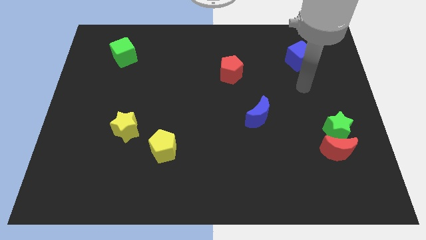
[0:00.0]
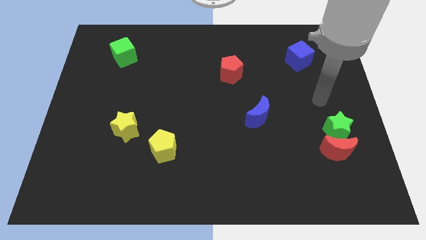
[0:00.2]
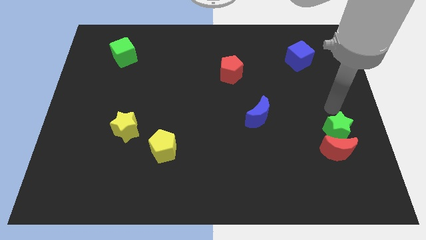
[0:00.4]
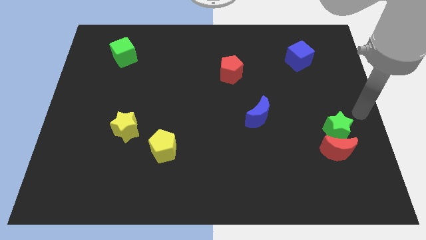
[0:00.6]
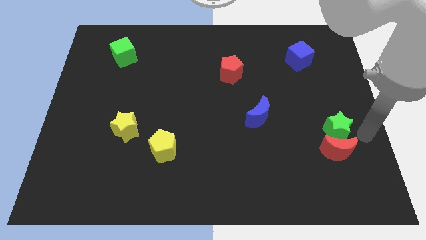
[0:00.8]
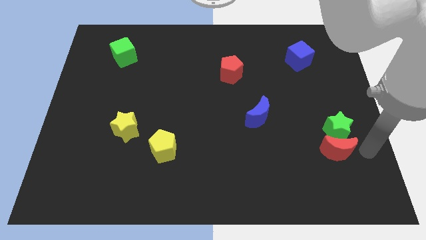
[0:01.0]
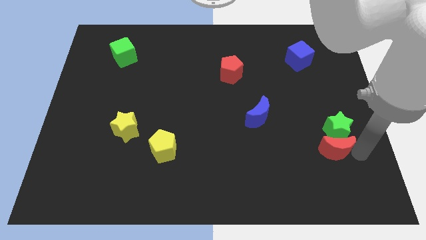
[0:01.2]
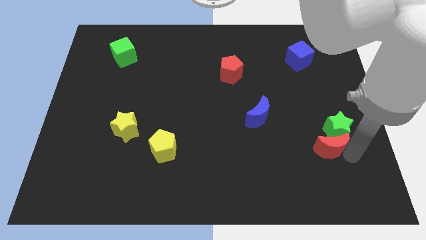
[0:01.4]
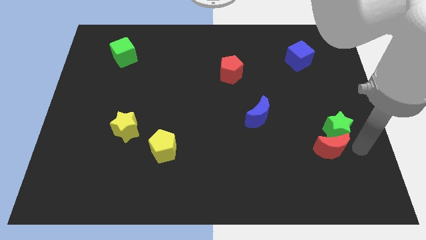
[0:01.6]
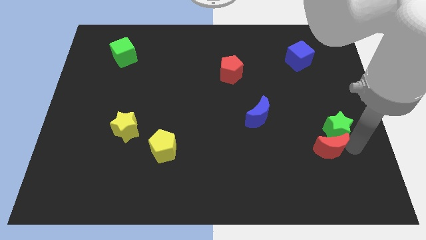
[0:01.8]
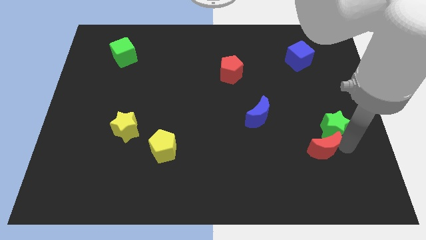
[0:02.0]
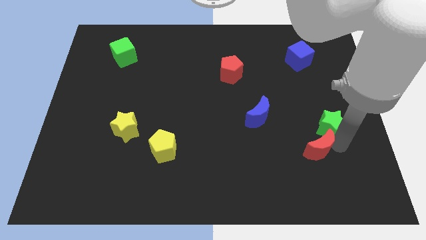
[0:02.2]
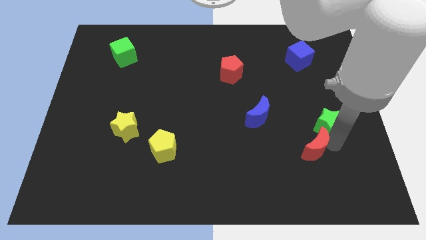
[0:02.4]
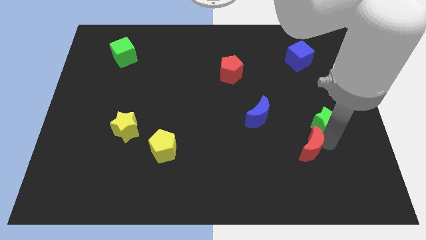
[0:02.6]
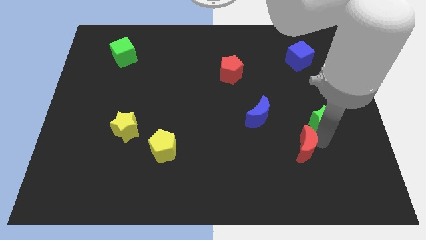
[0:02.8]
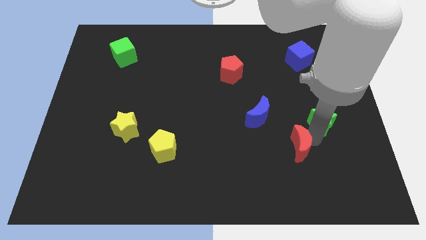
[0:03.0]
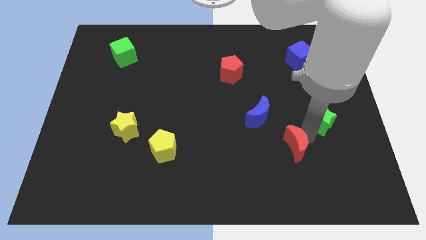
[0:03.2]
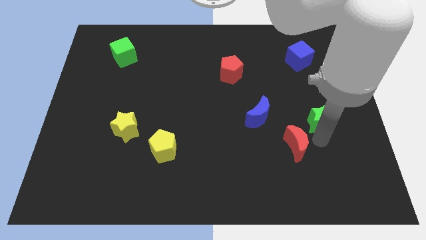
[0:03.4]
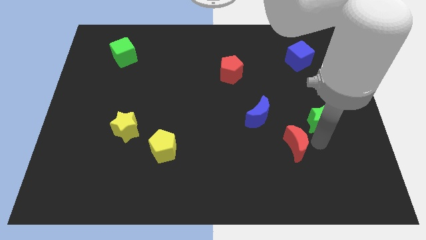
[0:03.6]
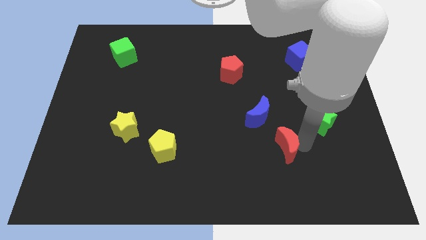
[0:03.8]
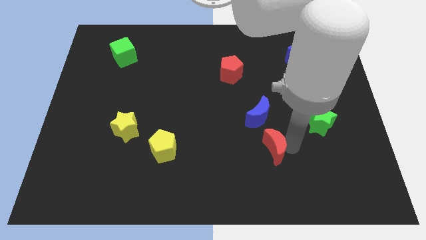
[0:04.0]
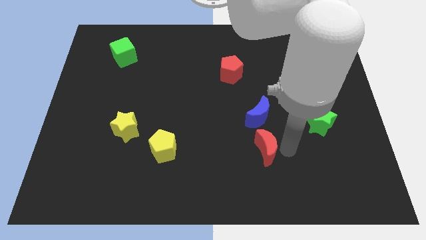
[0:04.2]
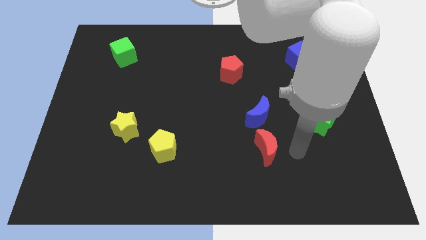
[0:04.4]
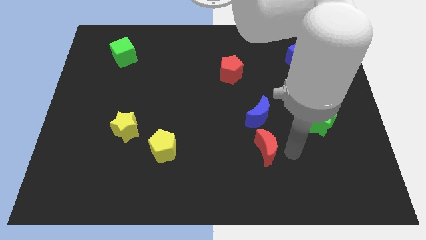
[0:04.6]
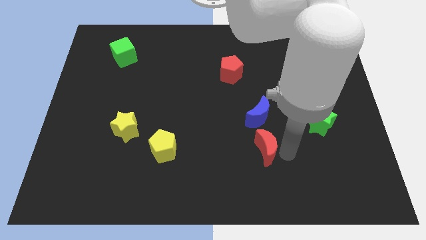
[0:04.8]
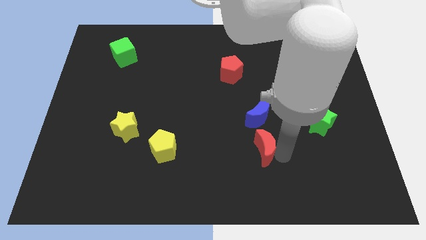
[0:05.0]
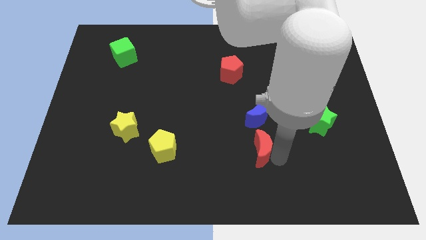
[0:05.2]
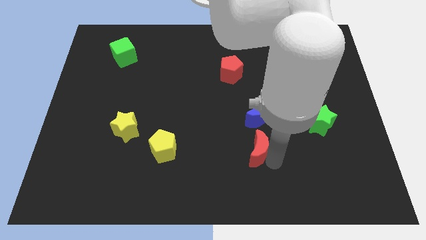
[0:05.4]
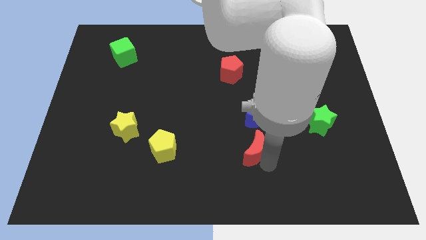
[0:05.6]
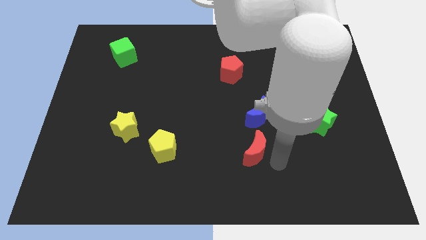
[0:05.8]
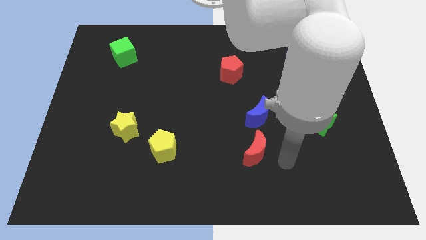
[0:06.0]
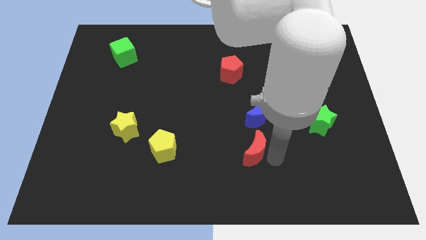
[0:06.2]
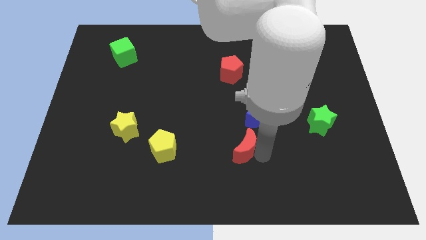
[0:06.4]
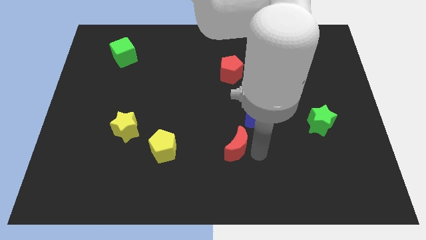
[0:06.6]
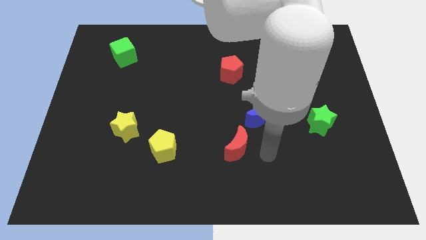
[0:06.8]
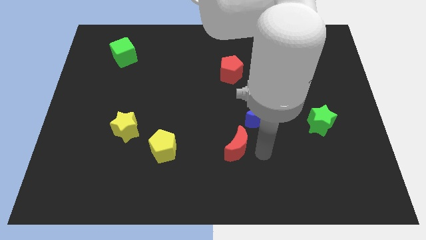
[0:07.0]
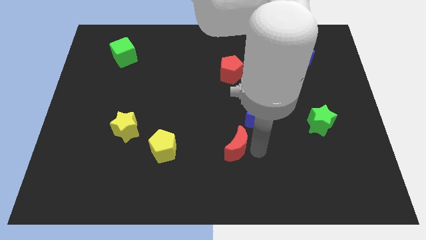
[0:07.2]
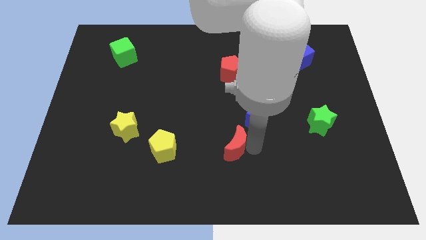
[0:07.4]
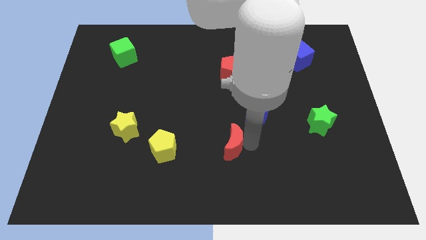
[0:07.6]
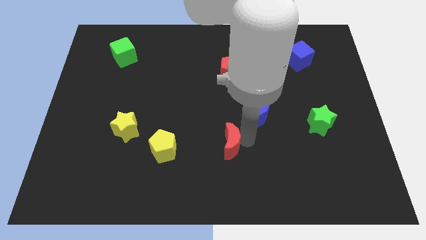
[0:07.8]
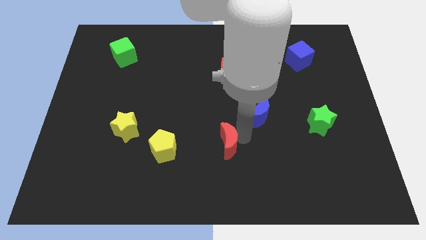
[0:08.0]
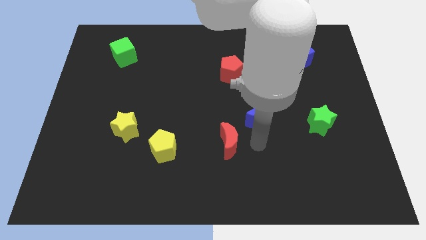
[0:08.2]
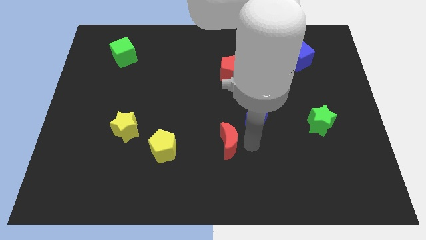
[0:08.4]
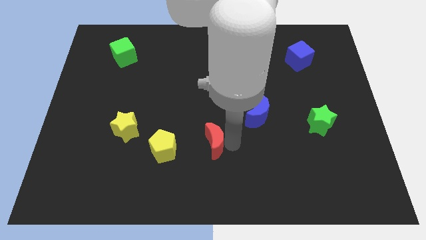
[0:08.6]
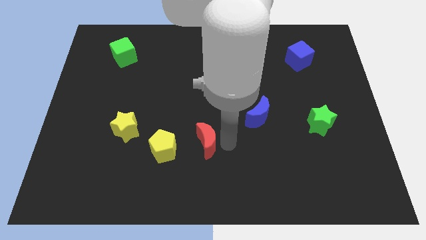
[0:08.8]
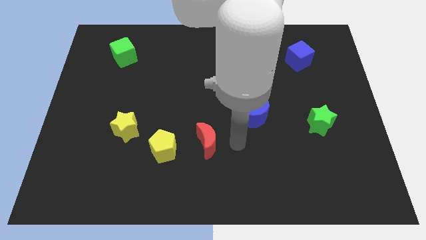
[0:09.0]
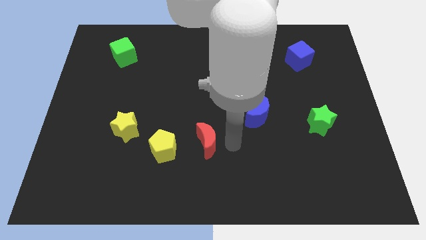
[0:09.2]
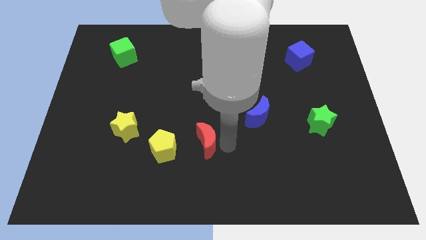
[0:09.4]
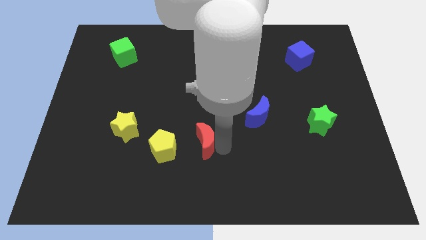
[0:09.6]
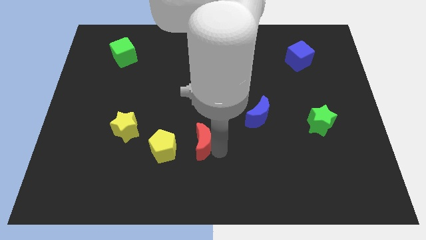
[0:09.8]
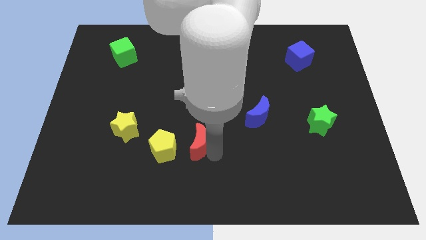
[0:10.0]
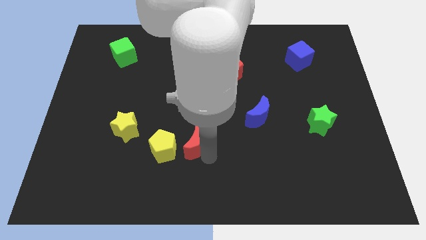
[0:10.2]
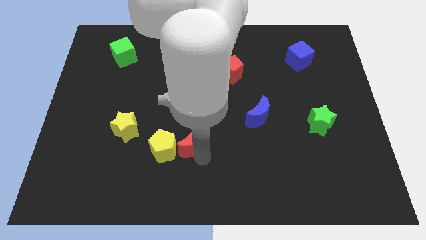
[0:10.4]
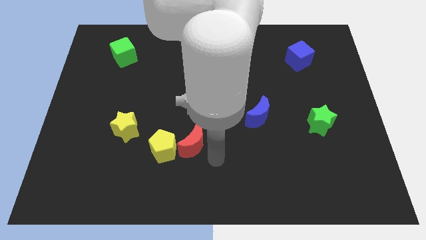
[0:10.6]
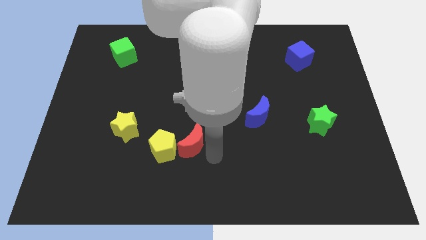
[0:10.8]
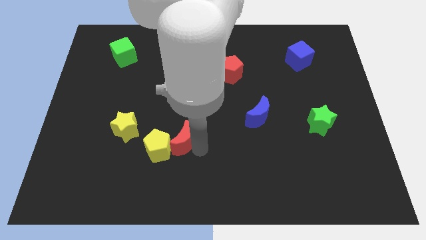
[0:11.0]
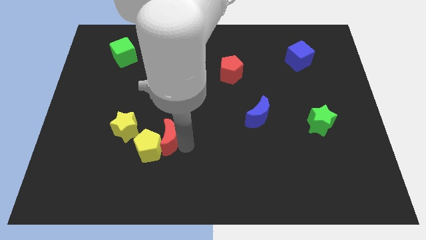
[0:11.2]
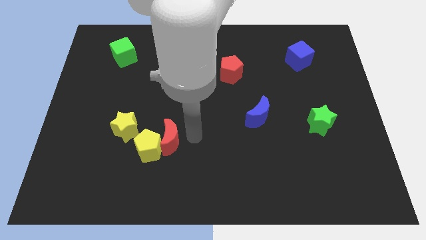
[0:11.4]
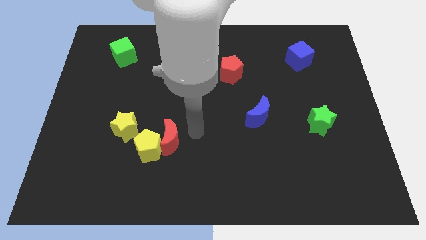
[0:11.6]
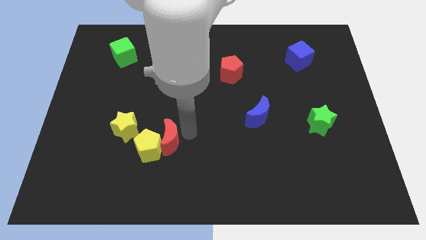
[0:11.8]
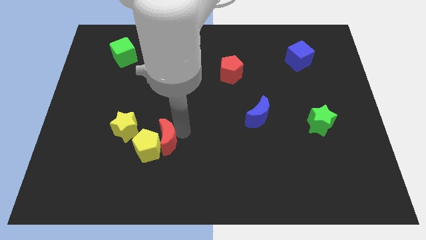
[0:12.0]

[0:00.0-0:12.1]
move the red moon to the bottom right of the yellow star

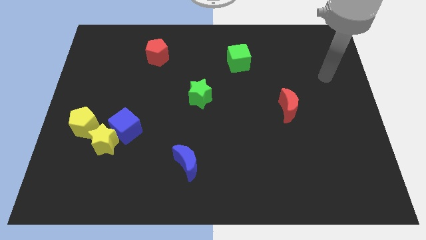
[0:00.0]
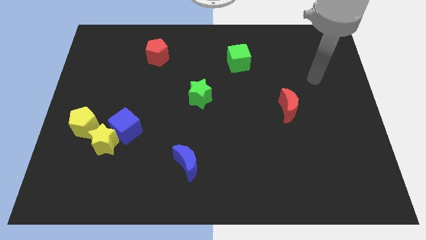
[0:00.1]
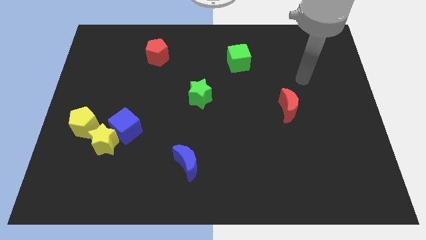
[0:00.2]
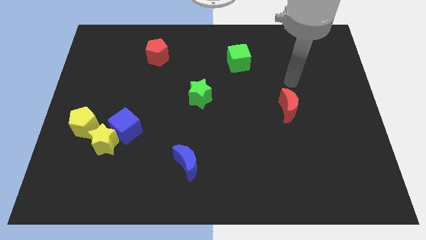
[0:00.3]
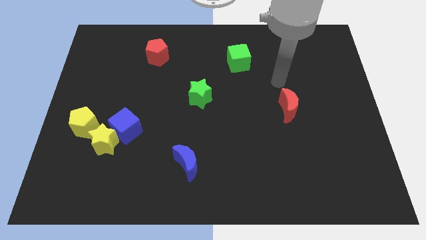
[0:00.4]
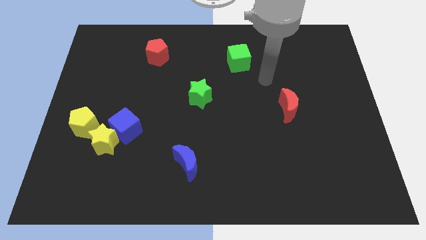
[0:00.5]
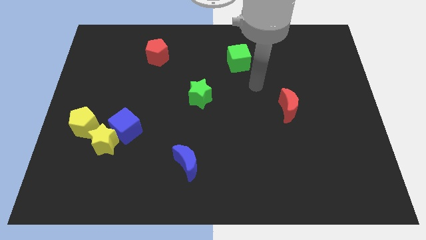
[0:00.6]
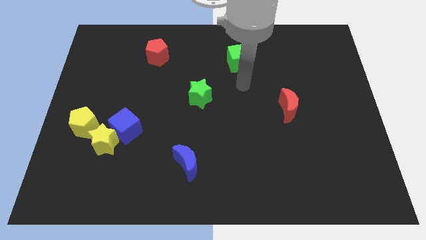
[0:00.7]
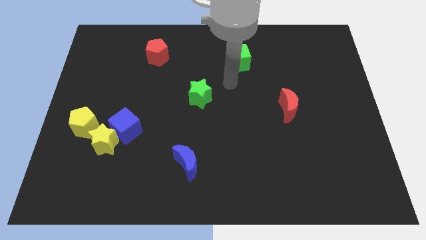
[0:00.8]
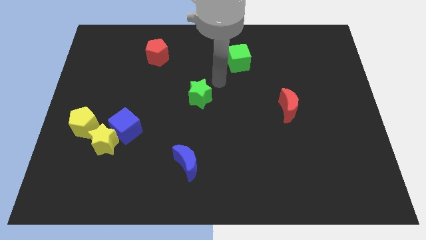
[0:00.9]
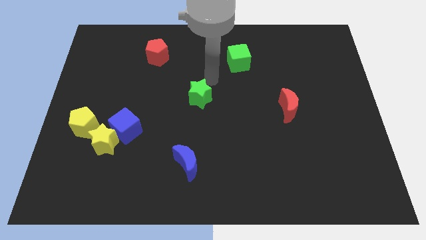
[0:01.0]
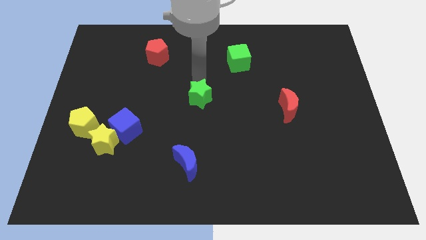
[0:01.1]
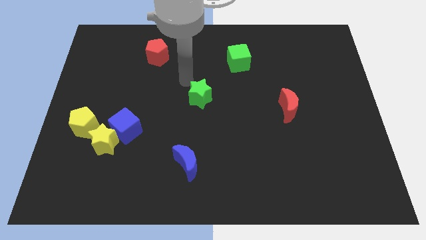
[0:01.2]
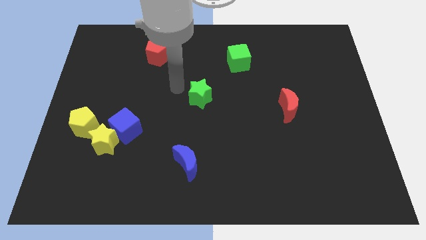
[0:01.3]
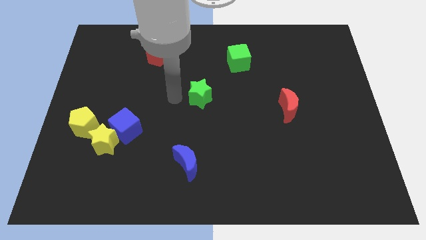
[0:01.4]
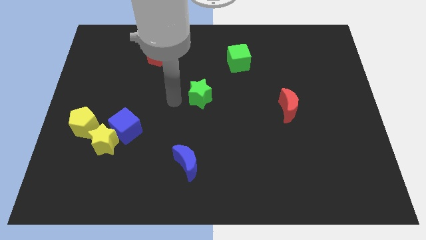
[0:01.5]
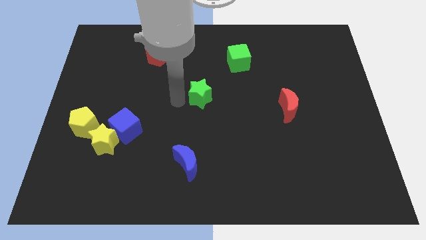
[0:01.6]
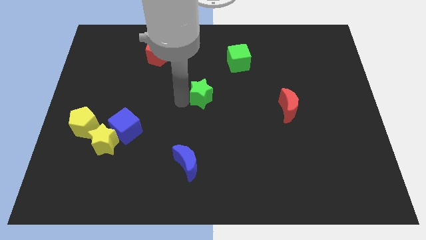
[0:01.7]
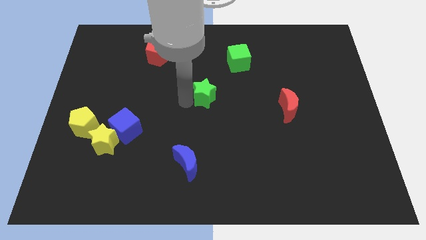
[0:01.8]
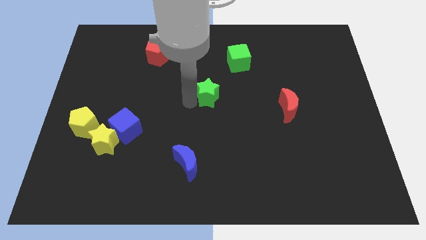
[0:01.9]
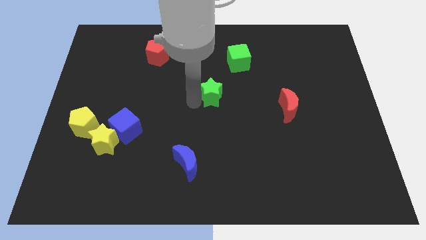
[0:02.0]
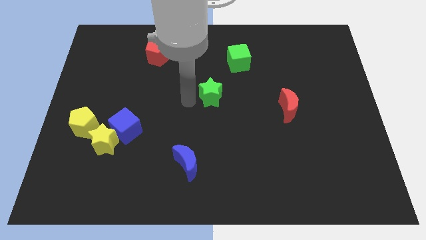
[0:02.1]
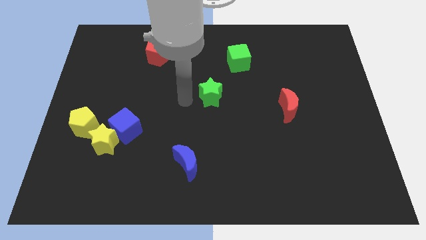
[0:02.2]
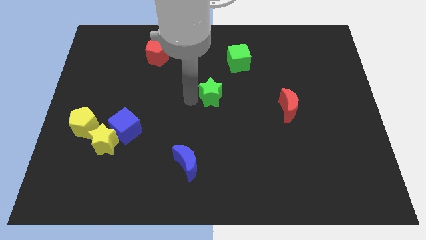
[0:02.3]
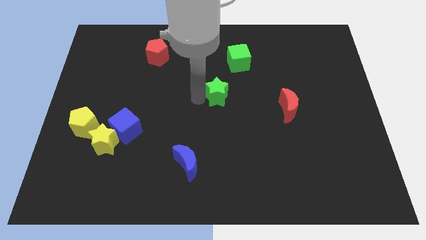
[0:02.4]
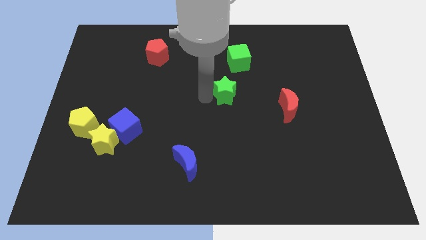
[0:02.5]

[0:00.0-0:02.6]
slide the green star to the bottom of the green cube
